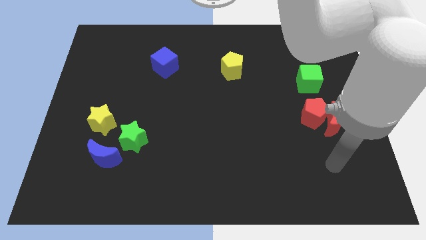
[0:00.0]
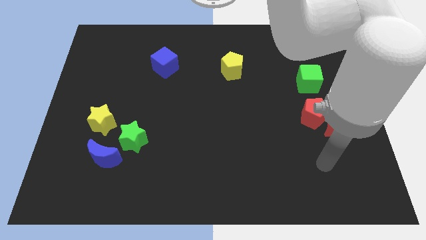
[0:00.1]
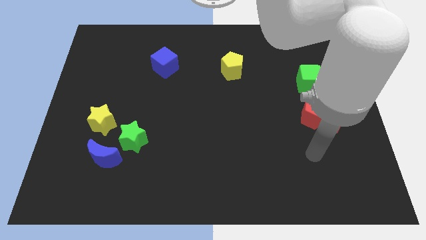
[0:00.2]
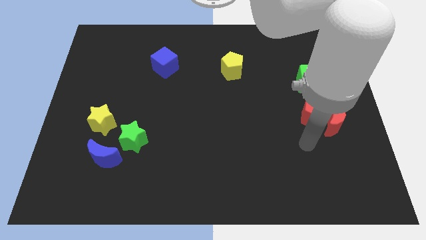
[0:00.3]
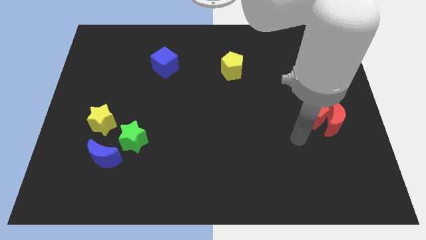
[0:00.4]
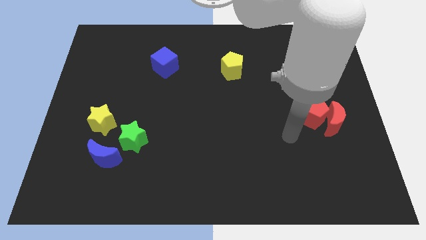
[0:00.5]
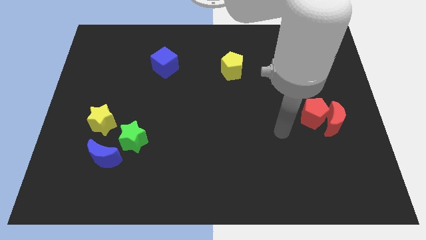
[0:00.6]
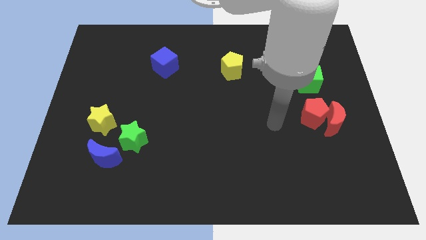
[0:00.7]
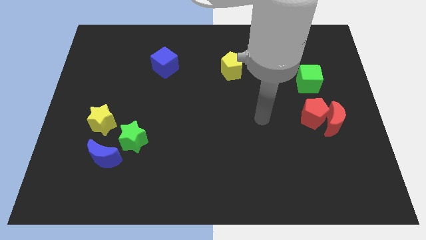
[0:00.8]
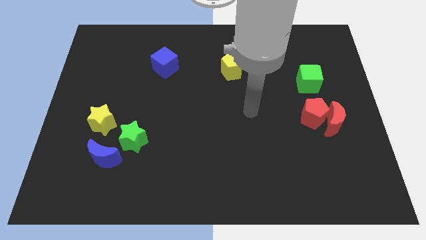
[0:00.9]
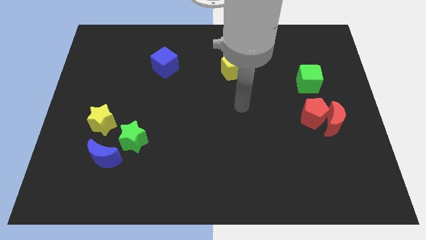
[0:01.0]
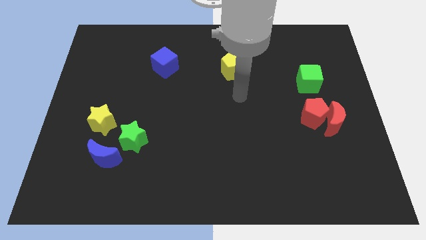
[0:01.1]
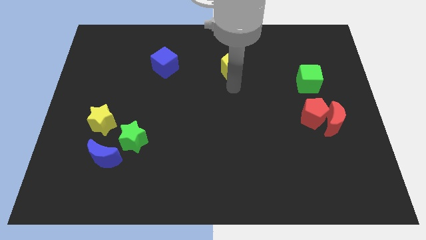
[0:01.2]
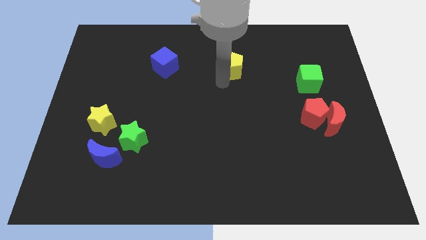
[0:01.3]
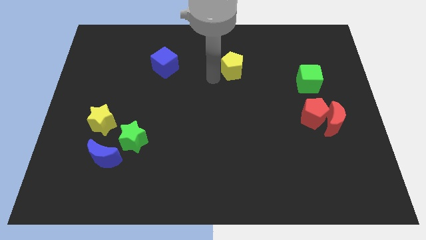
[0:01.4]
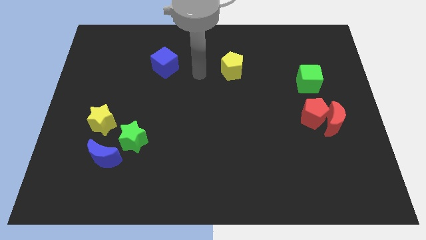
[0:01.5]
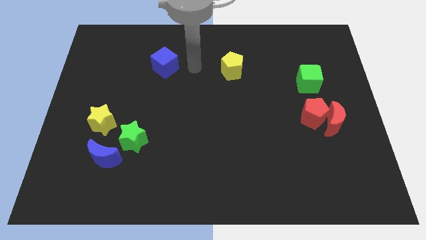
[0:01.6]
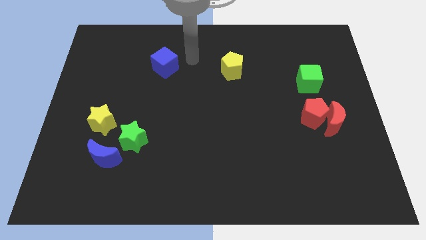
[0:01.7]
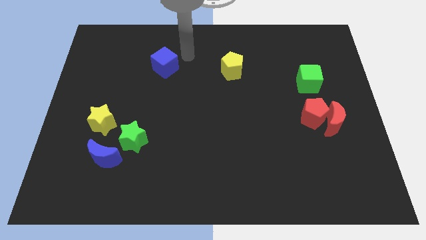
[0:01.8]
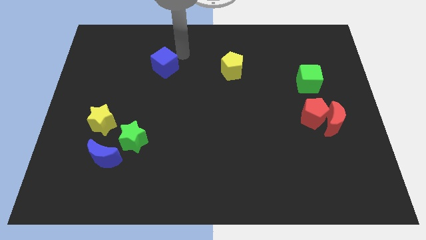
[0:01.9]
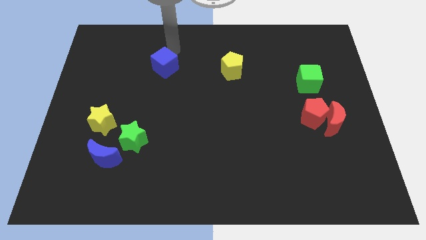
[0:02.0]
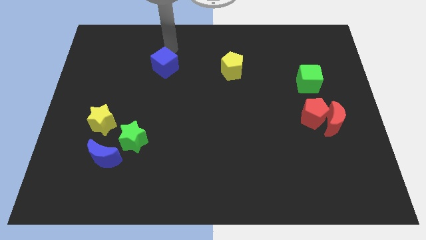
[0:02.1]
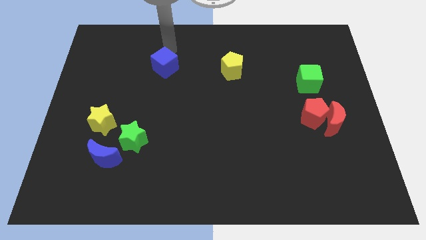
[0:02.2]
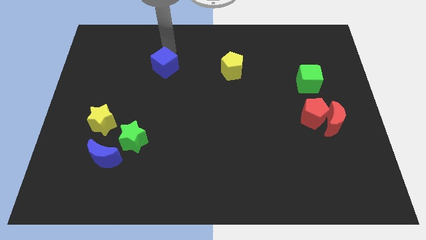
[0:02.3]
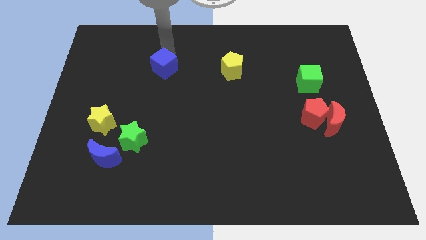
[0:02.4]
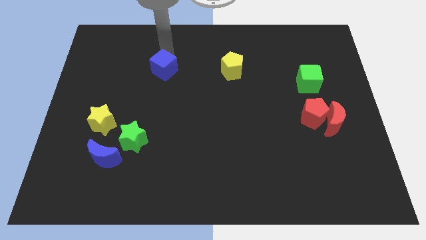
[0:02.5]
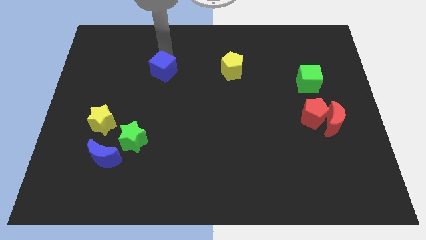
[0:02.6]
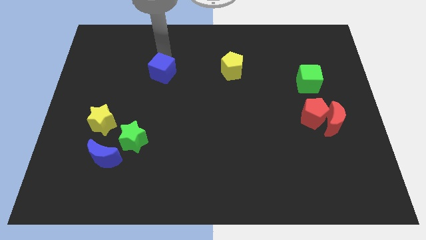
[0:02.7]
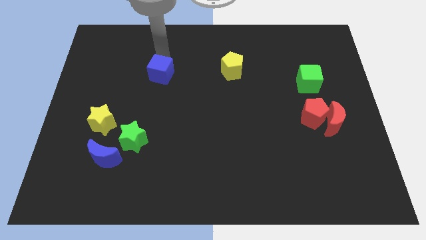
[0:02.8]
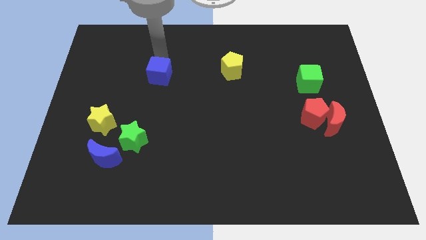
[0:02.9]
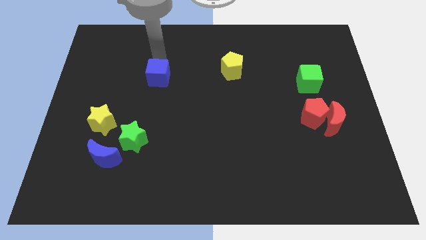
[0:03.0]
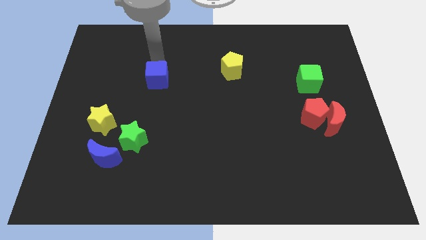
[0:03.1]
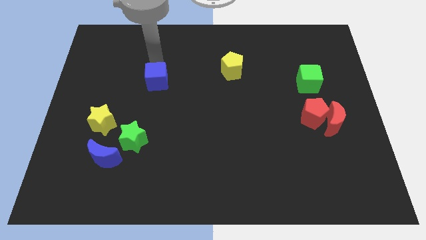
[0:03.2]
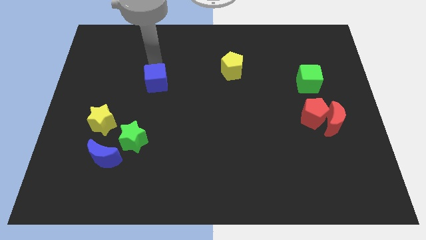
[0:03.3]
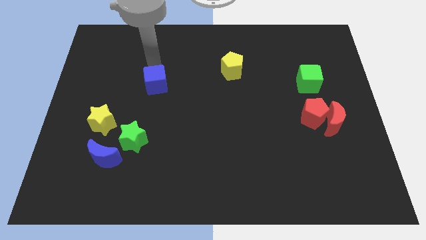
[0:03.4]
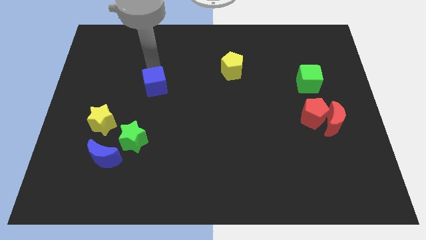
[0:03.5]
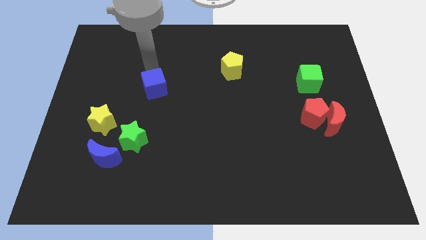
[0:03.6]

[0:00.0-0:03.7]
move the blue cube a little downwards

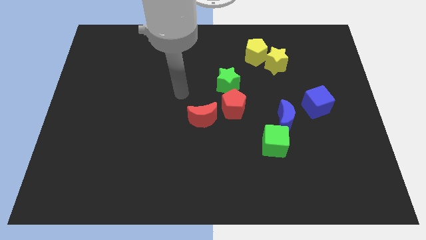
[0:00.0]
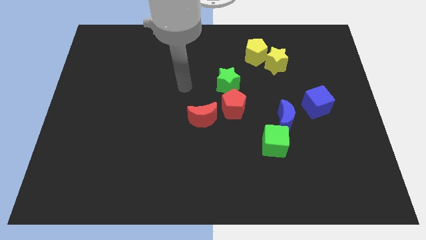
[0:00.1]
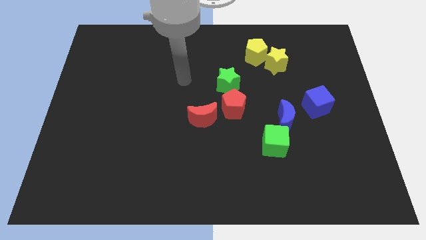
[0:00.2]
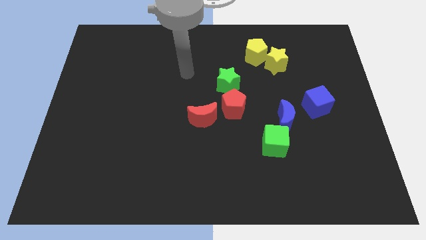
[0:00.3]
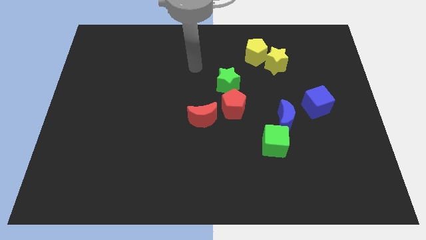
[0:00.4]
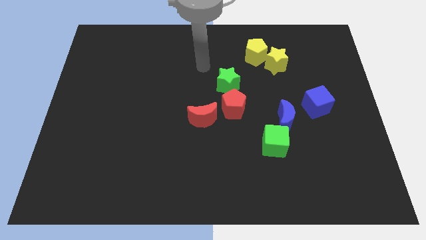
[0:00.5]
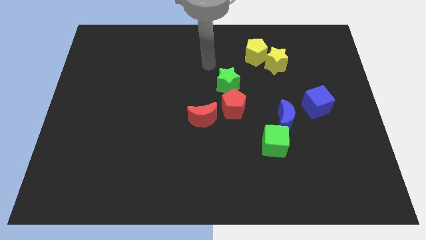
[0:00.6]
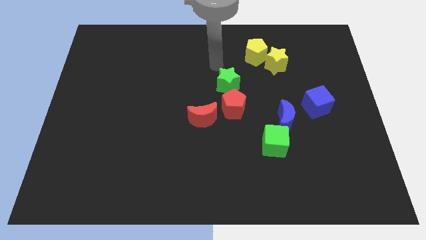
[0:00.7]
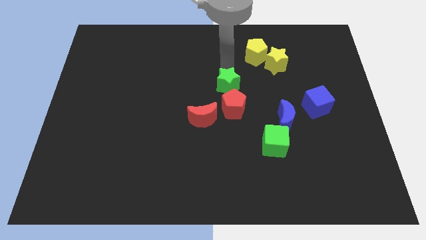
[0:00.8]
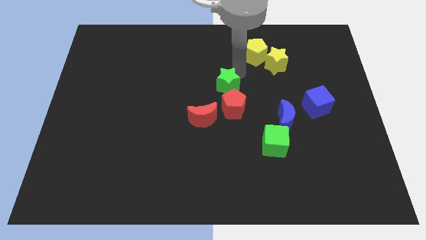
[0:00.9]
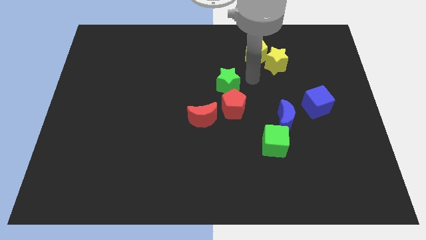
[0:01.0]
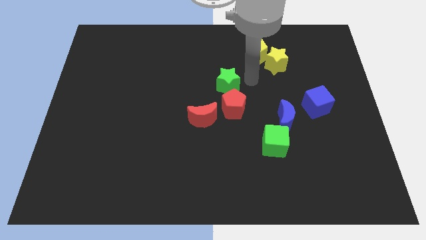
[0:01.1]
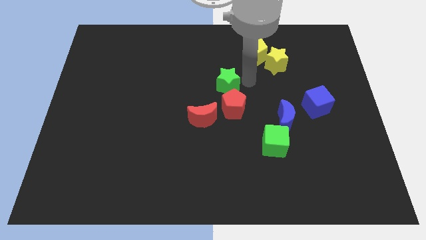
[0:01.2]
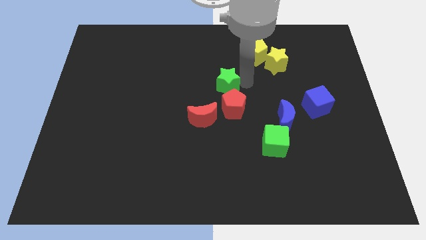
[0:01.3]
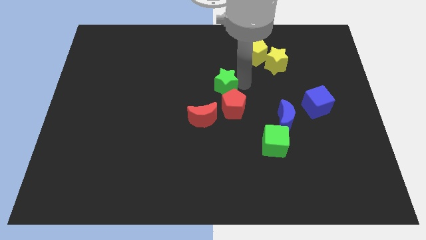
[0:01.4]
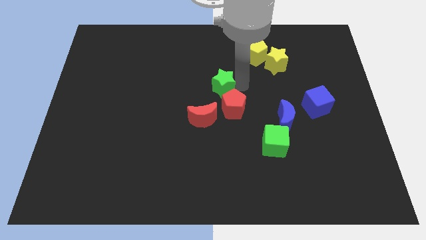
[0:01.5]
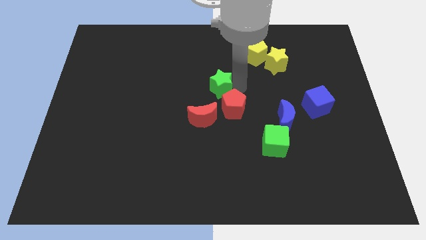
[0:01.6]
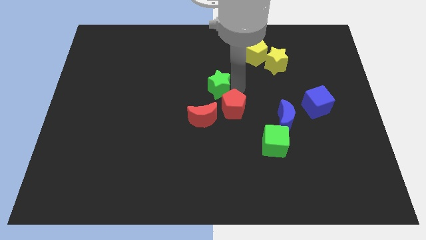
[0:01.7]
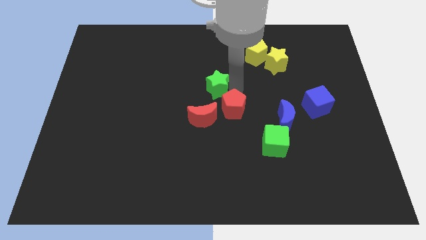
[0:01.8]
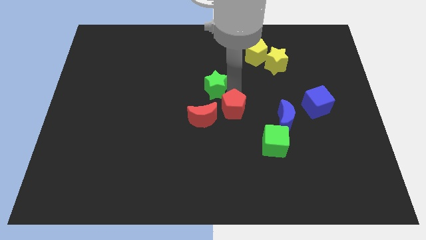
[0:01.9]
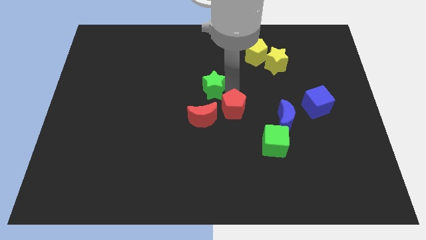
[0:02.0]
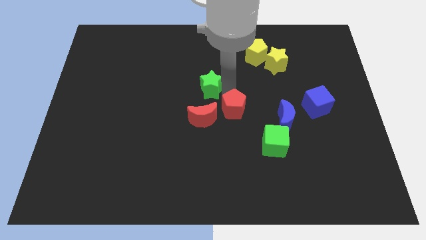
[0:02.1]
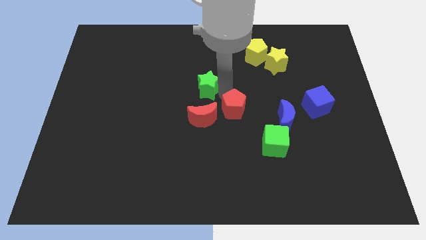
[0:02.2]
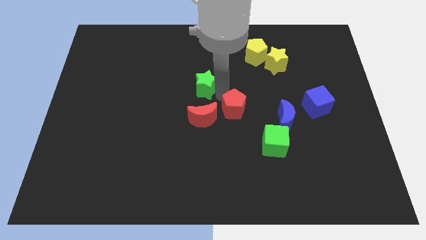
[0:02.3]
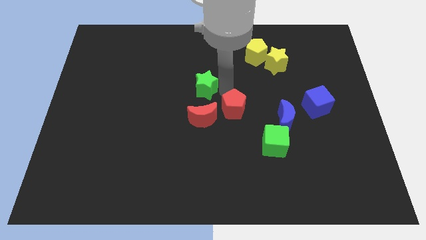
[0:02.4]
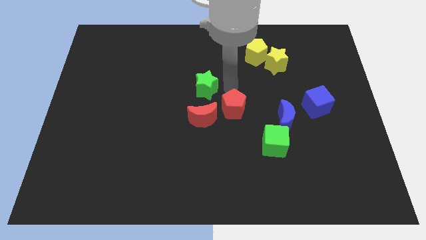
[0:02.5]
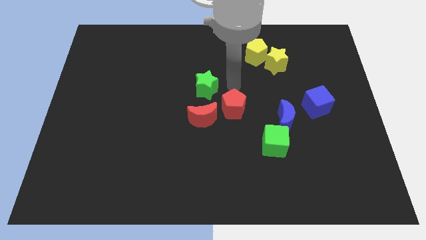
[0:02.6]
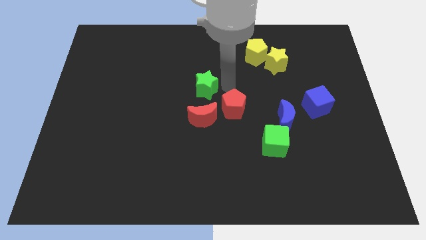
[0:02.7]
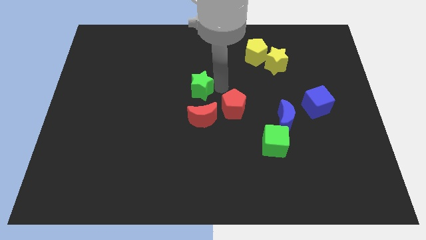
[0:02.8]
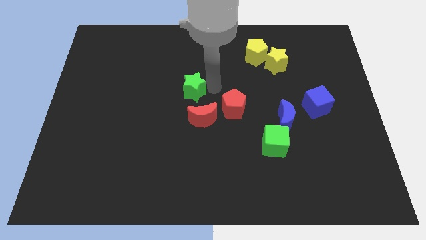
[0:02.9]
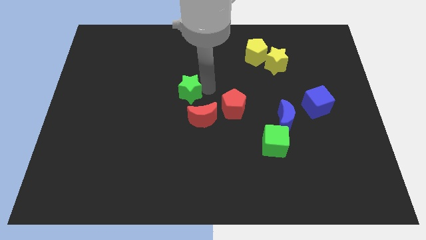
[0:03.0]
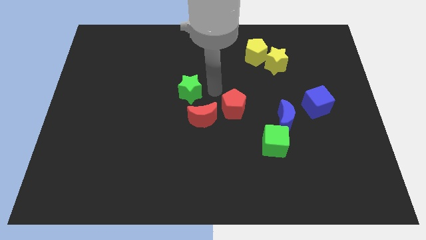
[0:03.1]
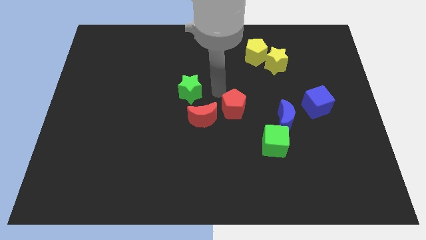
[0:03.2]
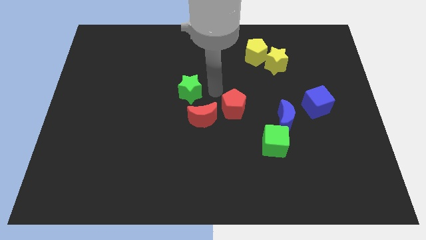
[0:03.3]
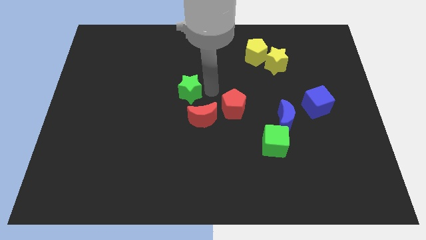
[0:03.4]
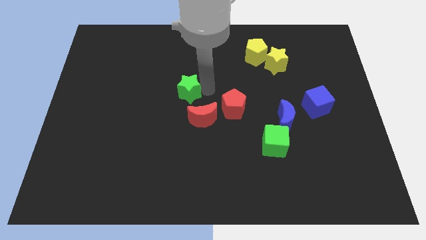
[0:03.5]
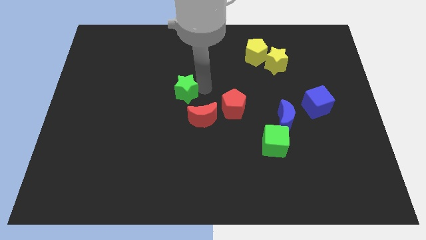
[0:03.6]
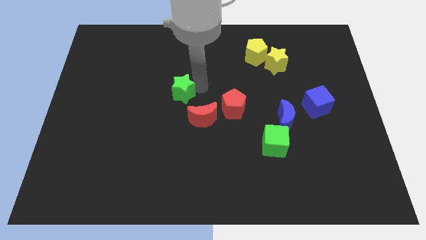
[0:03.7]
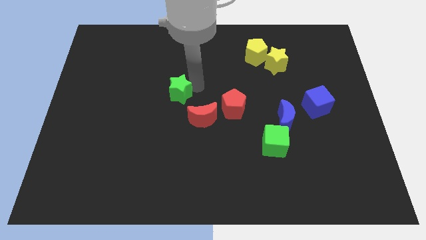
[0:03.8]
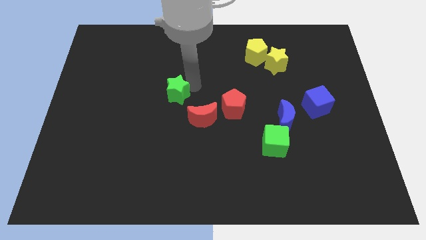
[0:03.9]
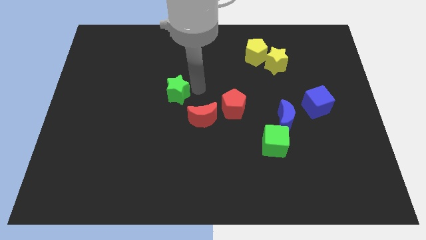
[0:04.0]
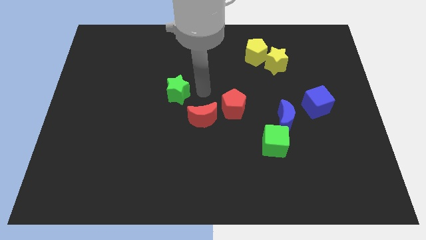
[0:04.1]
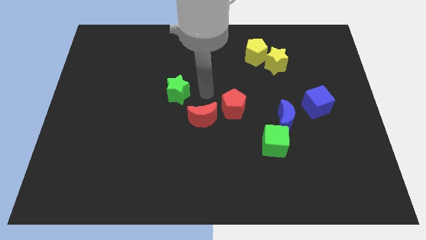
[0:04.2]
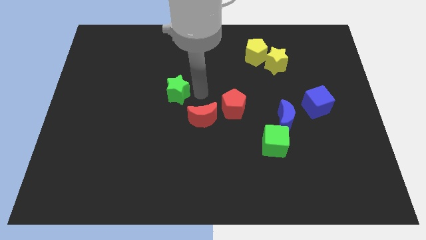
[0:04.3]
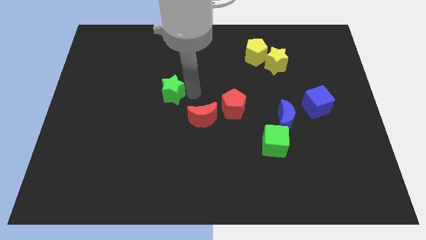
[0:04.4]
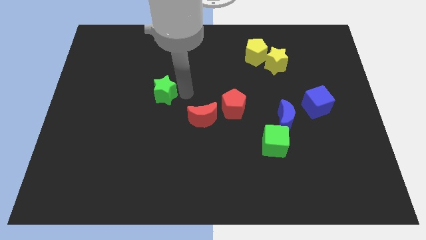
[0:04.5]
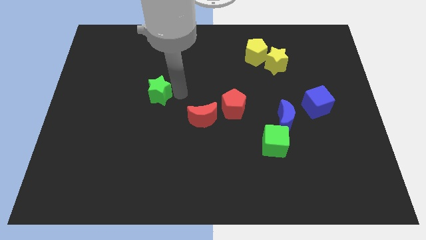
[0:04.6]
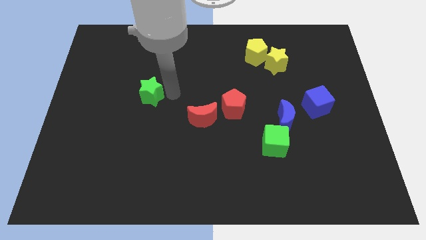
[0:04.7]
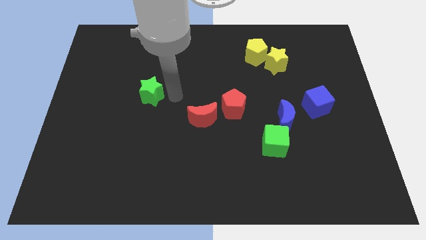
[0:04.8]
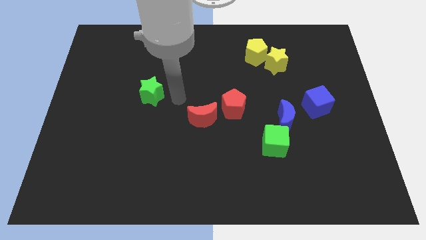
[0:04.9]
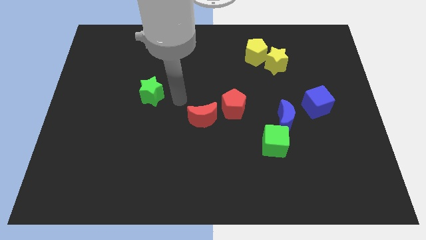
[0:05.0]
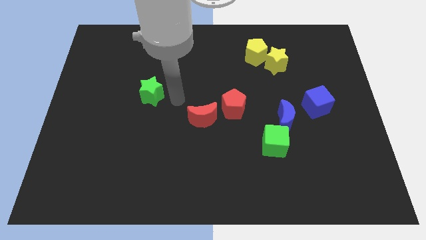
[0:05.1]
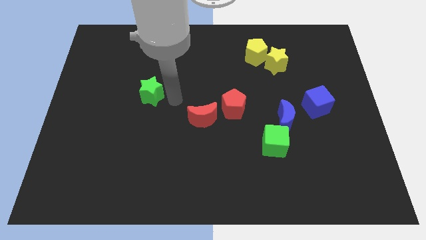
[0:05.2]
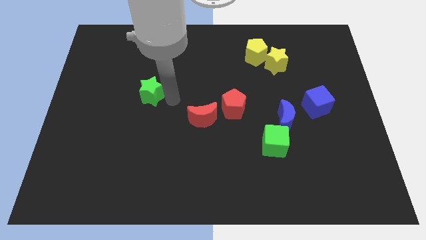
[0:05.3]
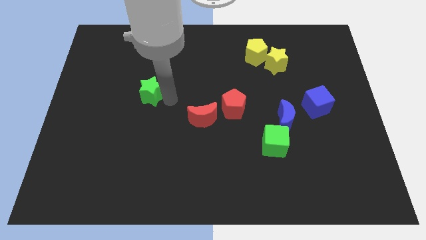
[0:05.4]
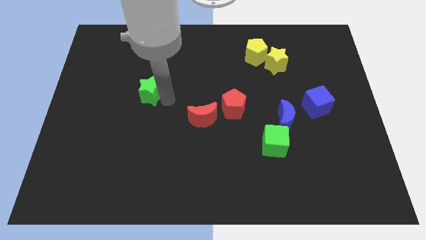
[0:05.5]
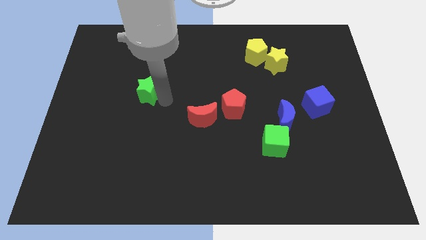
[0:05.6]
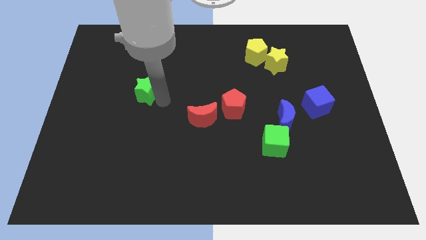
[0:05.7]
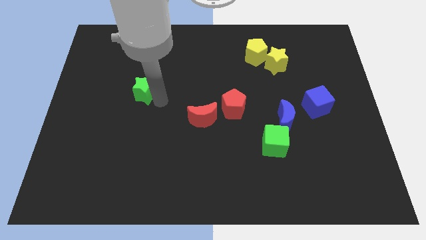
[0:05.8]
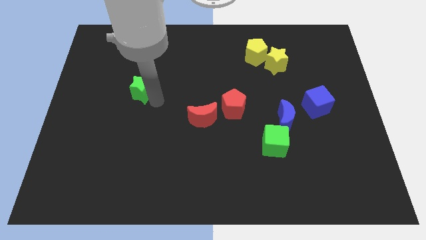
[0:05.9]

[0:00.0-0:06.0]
push the green star left
